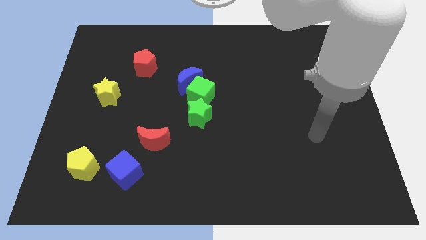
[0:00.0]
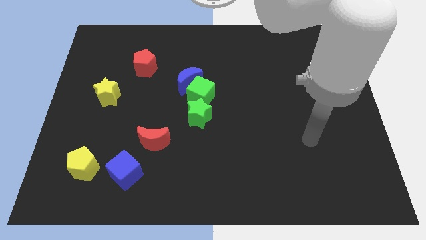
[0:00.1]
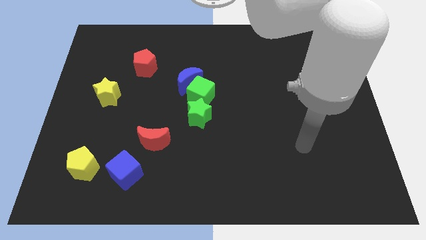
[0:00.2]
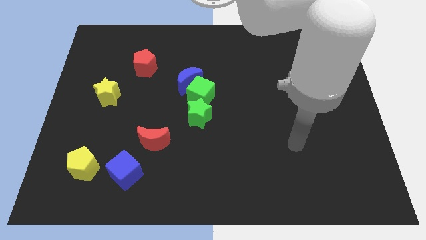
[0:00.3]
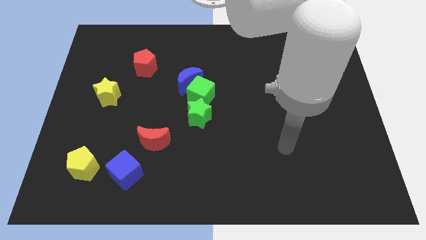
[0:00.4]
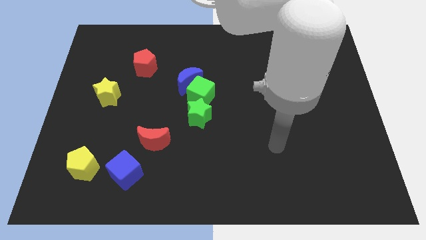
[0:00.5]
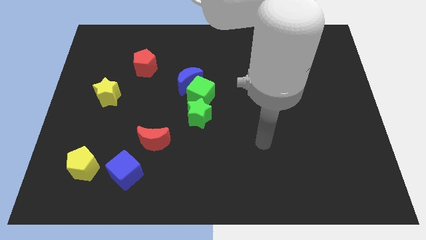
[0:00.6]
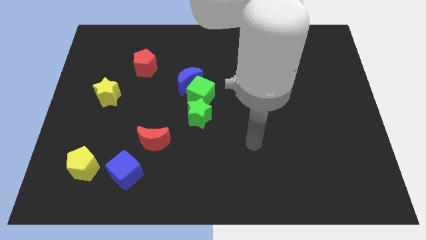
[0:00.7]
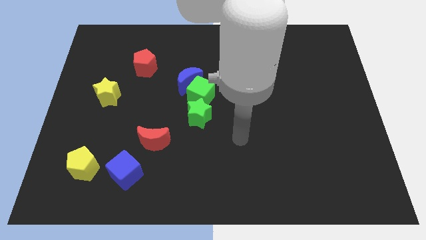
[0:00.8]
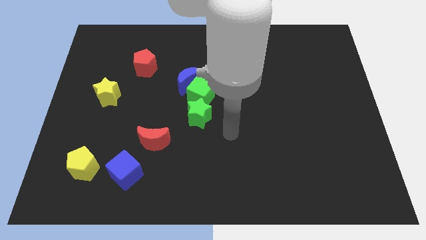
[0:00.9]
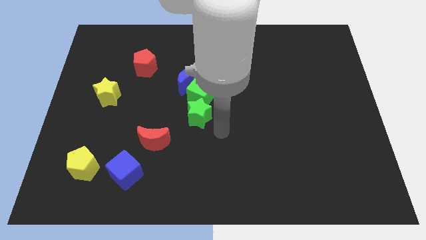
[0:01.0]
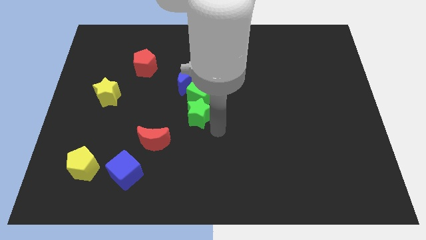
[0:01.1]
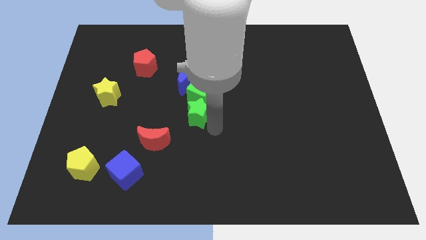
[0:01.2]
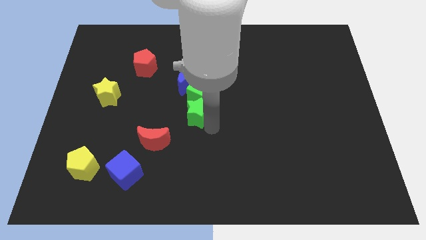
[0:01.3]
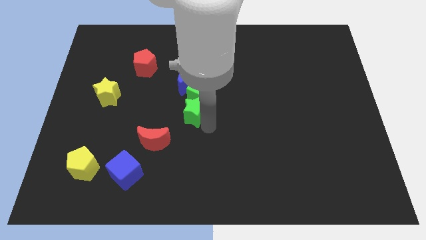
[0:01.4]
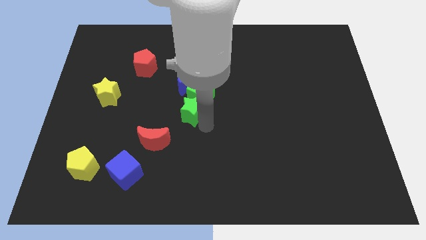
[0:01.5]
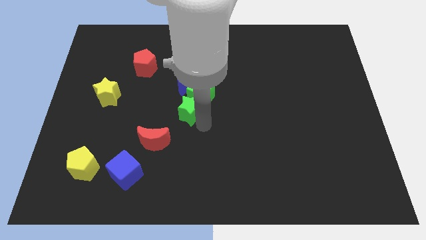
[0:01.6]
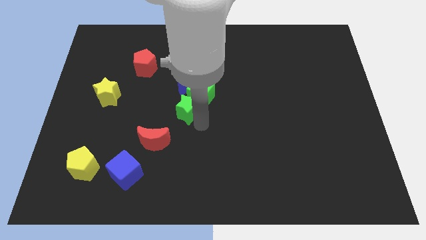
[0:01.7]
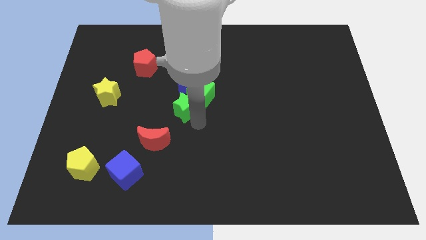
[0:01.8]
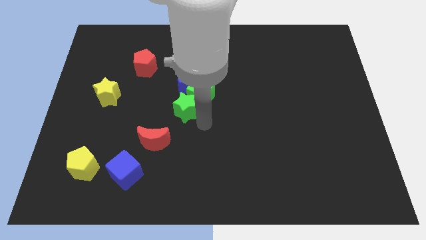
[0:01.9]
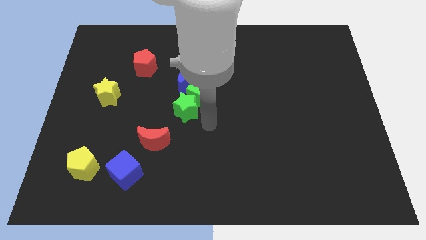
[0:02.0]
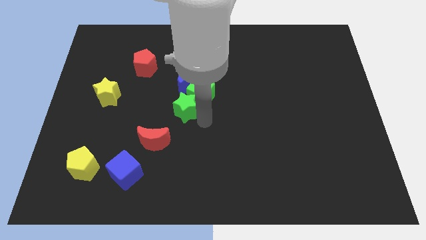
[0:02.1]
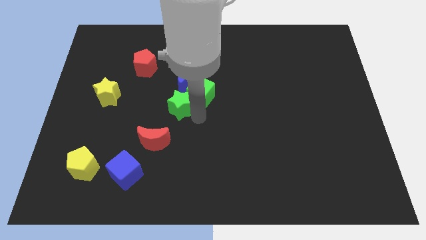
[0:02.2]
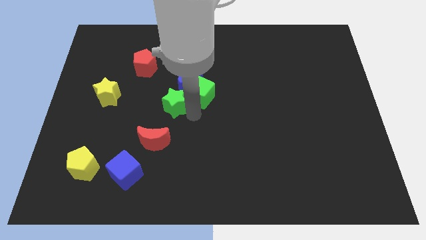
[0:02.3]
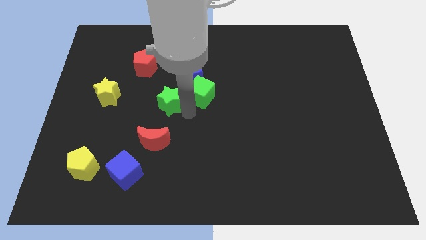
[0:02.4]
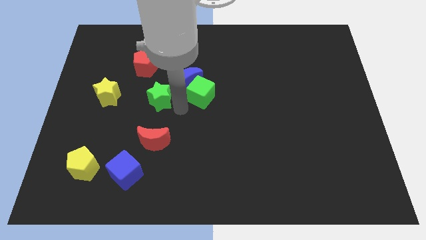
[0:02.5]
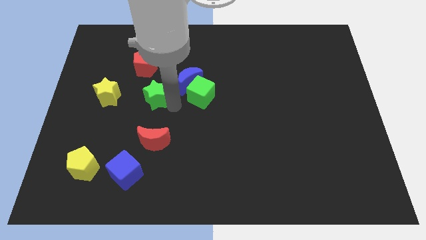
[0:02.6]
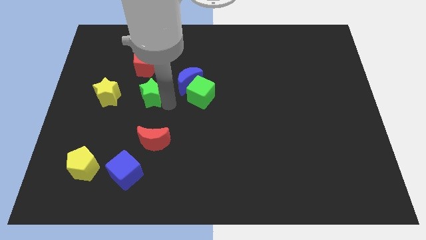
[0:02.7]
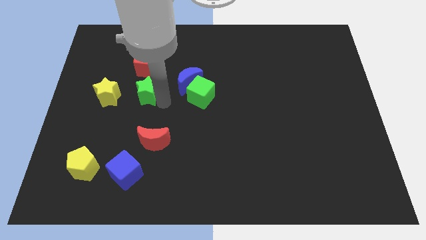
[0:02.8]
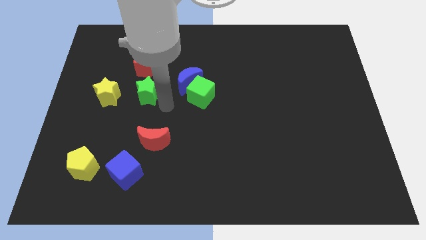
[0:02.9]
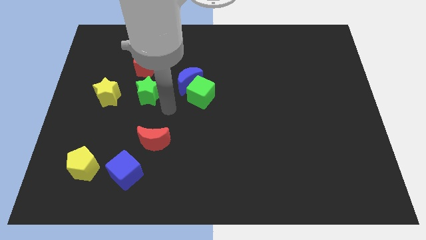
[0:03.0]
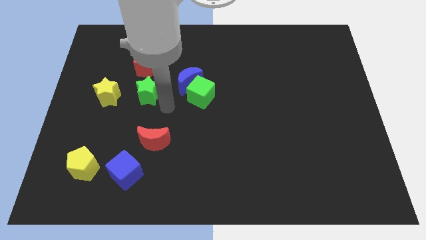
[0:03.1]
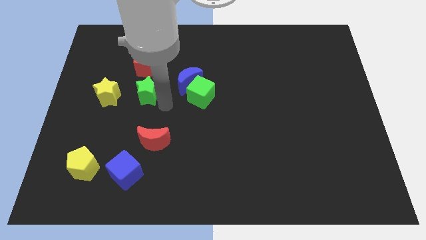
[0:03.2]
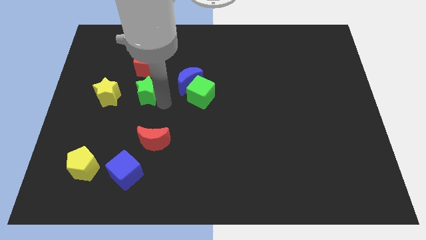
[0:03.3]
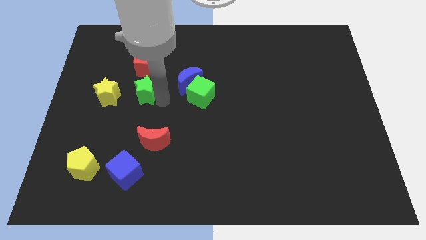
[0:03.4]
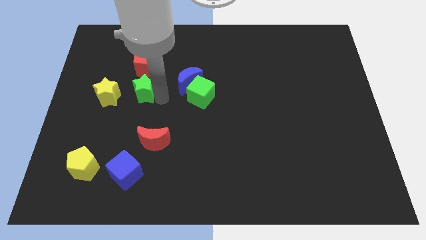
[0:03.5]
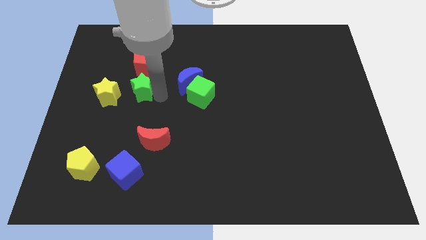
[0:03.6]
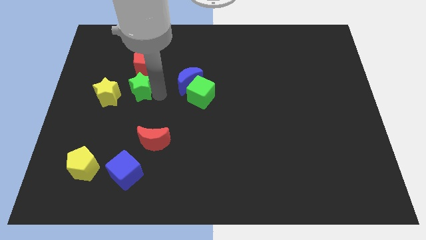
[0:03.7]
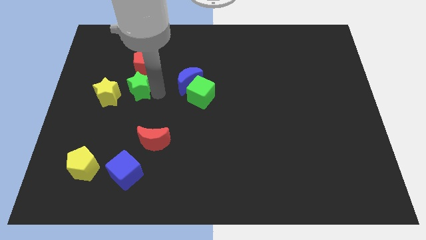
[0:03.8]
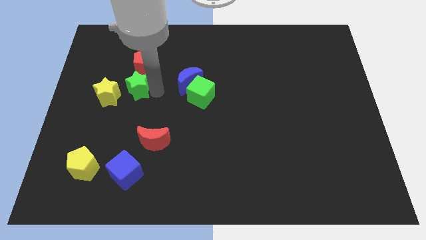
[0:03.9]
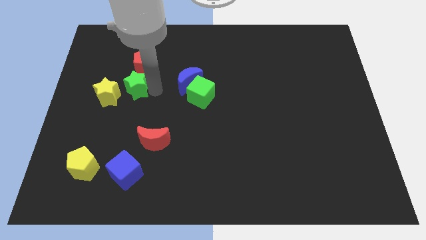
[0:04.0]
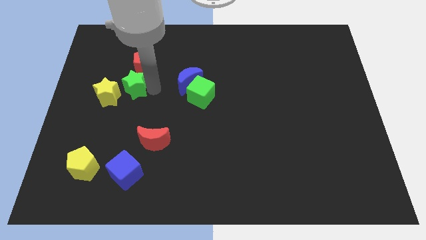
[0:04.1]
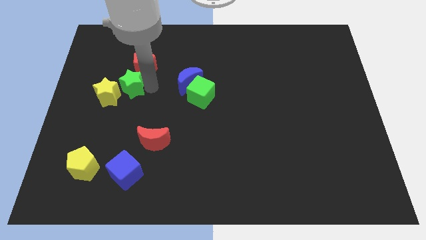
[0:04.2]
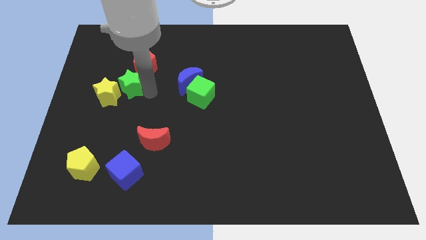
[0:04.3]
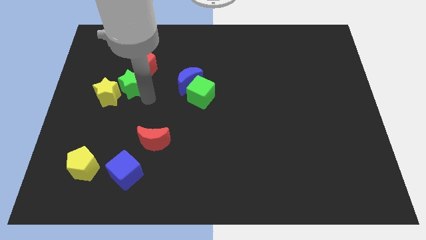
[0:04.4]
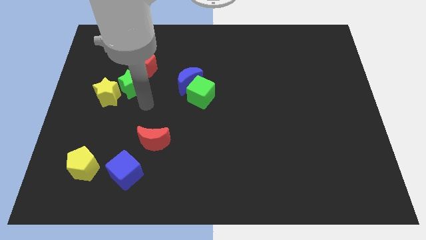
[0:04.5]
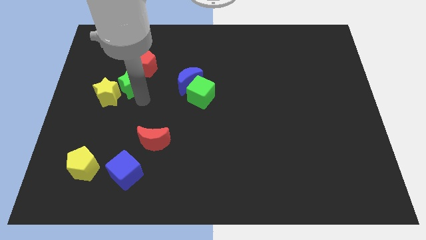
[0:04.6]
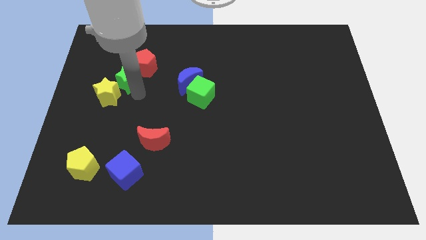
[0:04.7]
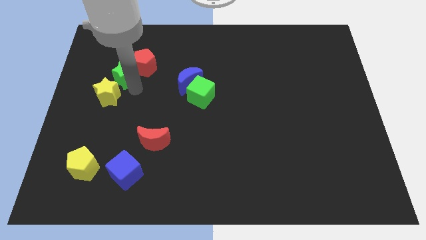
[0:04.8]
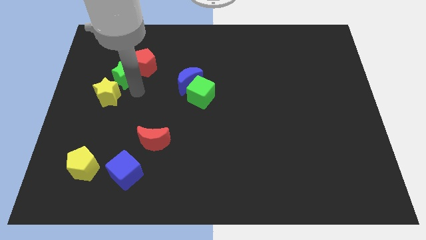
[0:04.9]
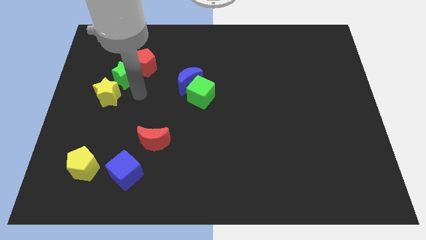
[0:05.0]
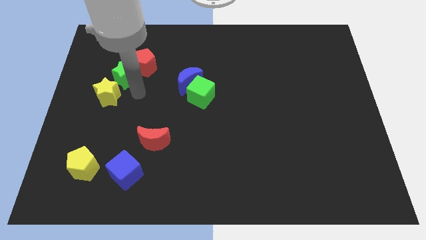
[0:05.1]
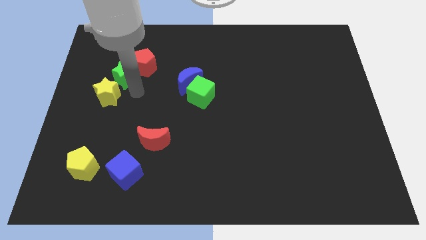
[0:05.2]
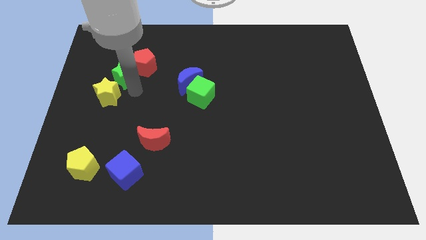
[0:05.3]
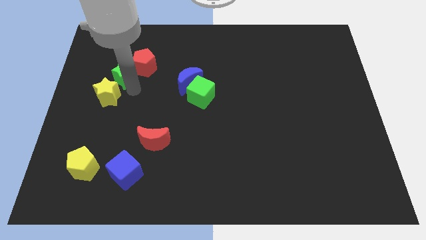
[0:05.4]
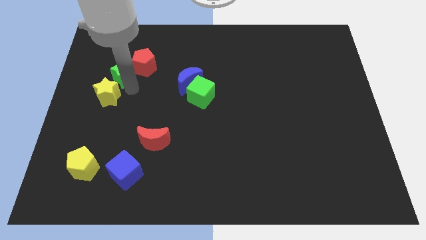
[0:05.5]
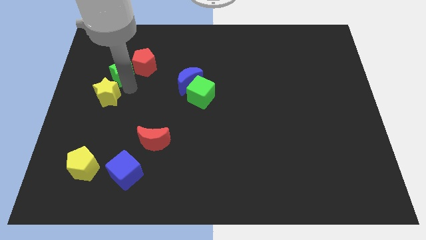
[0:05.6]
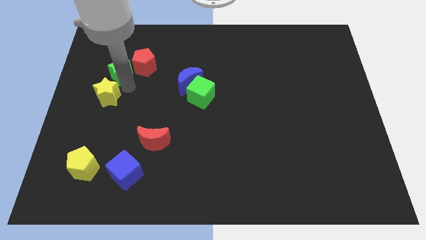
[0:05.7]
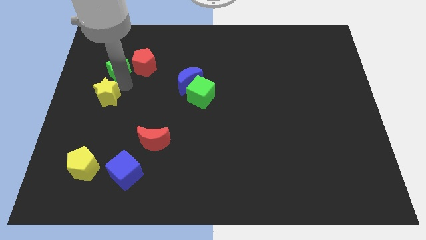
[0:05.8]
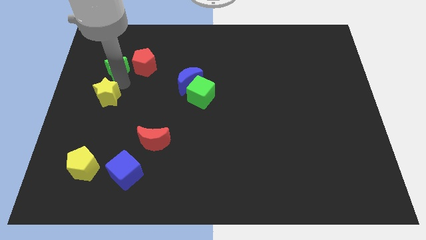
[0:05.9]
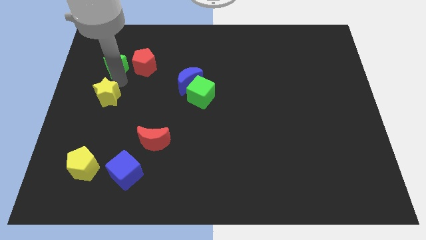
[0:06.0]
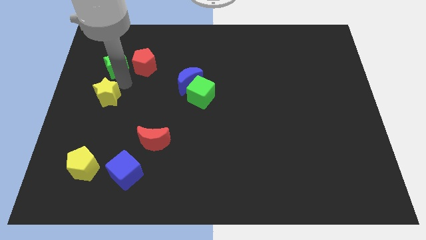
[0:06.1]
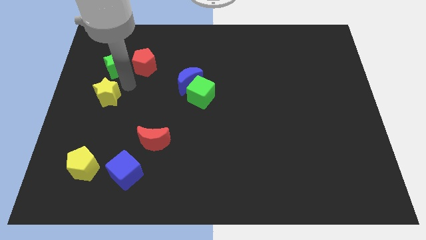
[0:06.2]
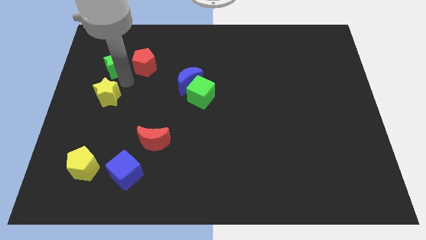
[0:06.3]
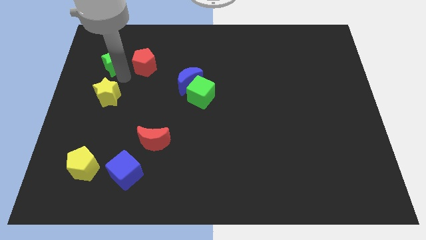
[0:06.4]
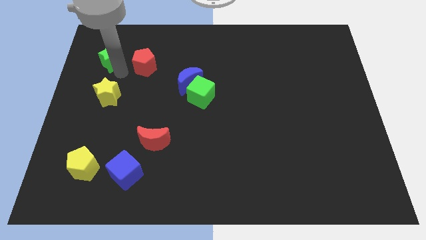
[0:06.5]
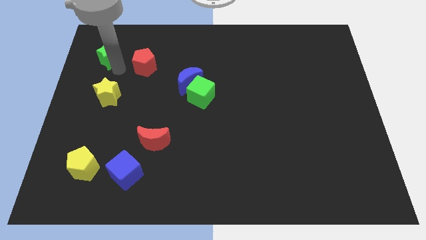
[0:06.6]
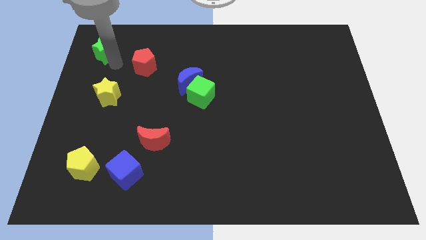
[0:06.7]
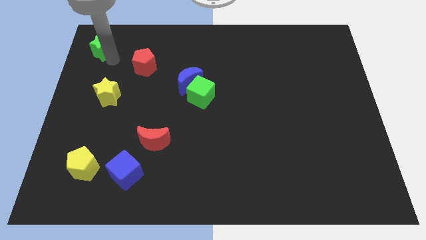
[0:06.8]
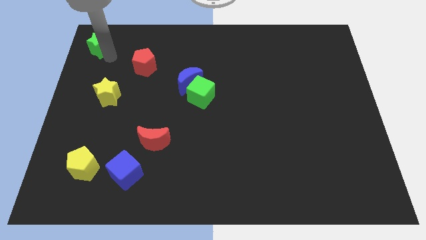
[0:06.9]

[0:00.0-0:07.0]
slide the green star to the top left
